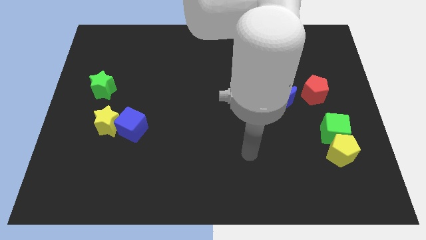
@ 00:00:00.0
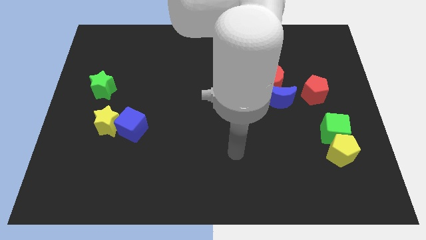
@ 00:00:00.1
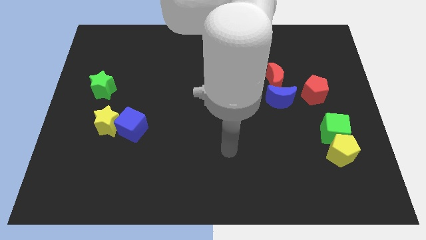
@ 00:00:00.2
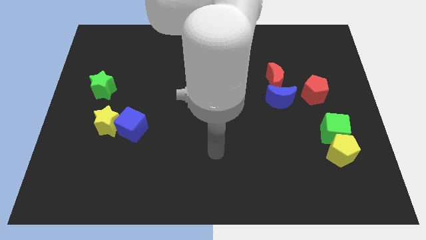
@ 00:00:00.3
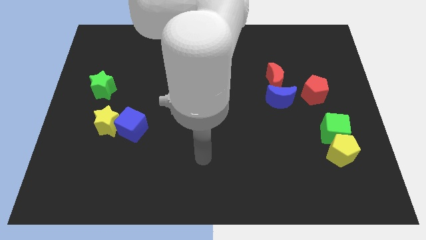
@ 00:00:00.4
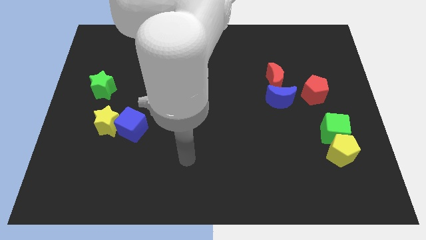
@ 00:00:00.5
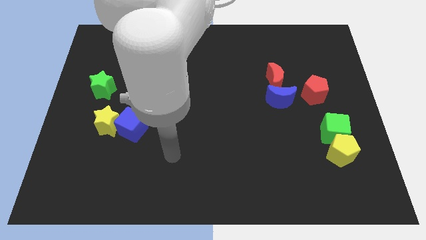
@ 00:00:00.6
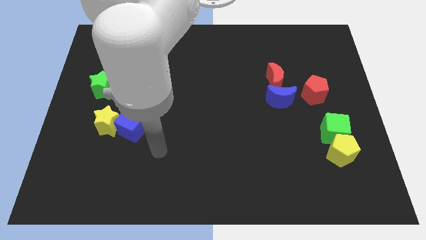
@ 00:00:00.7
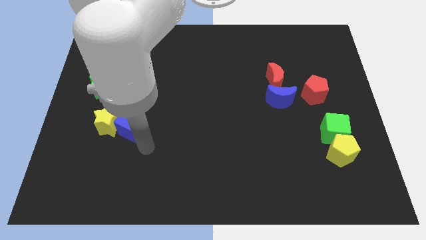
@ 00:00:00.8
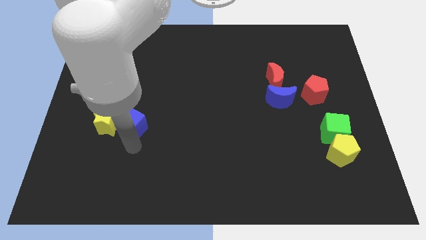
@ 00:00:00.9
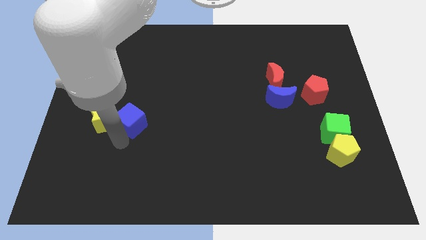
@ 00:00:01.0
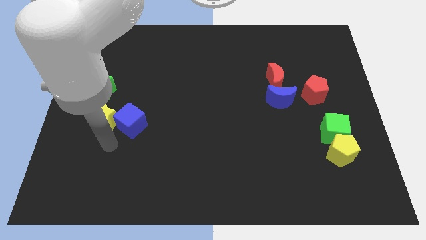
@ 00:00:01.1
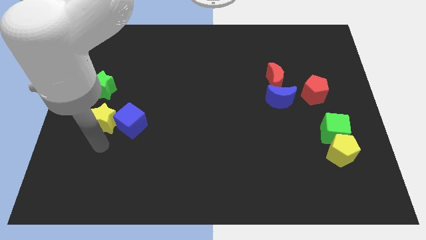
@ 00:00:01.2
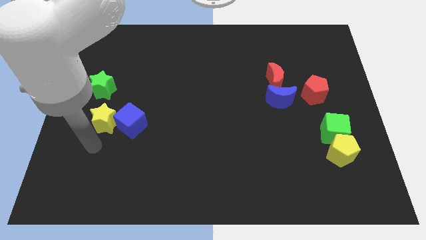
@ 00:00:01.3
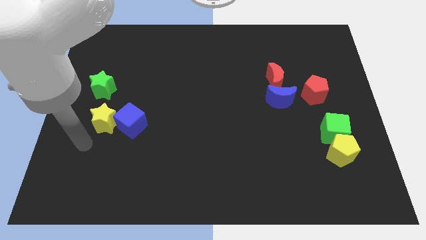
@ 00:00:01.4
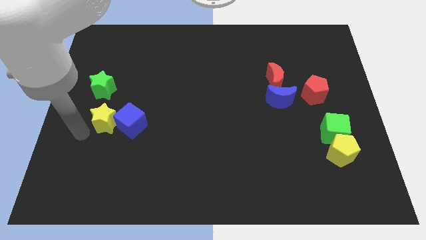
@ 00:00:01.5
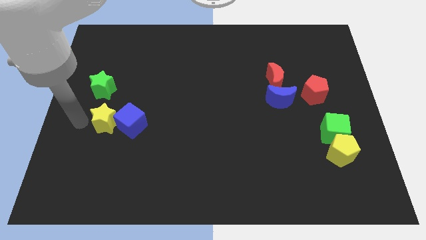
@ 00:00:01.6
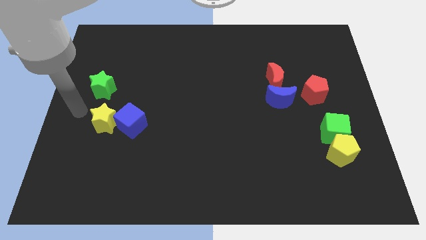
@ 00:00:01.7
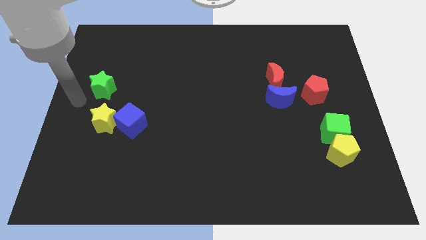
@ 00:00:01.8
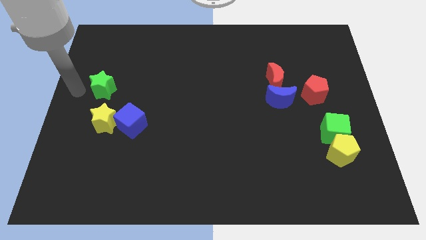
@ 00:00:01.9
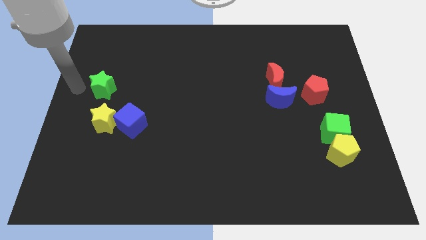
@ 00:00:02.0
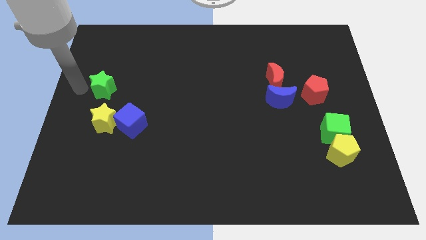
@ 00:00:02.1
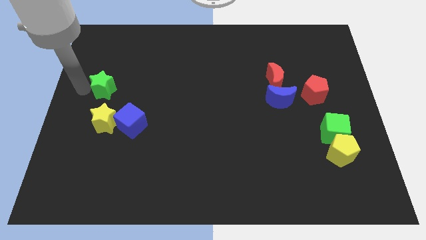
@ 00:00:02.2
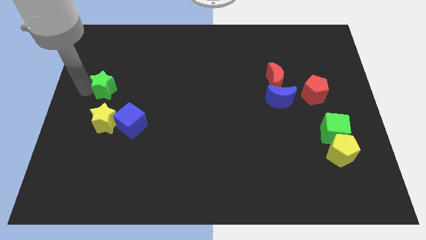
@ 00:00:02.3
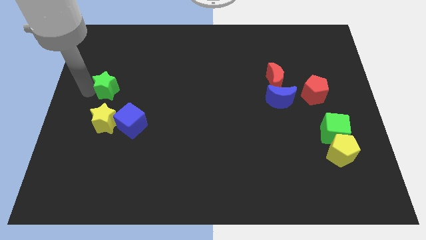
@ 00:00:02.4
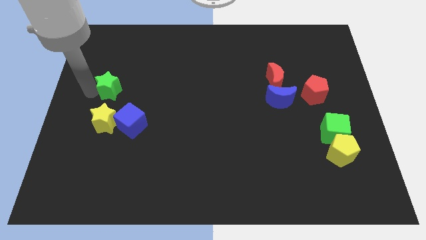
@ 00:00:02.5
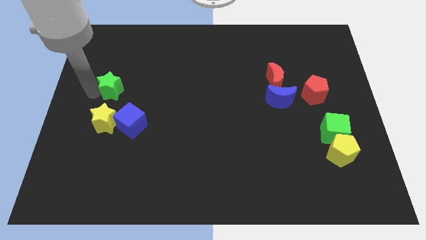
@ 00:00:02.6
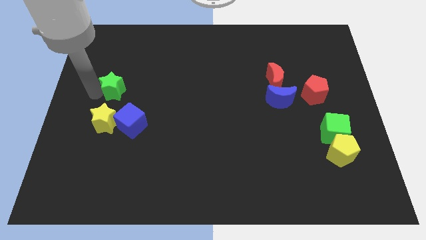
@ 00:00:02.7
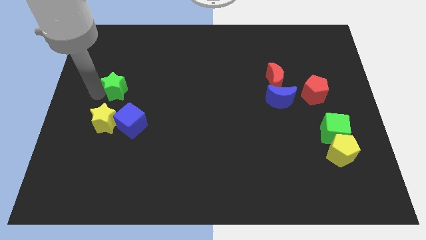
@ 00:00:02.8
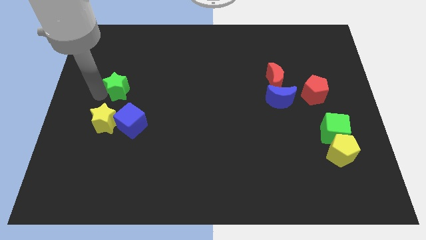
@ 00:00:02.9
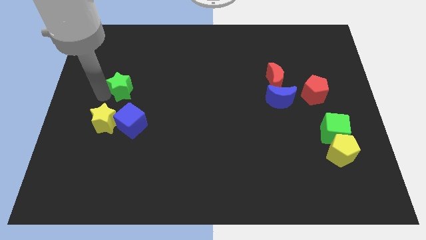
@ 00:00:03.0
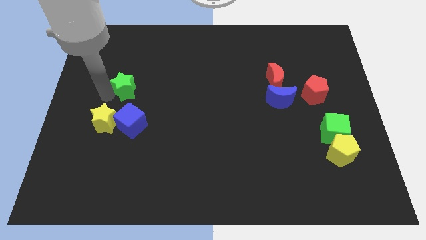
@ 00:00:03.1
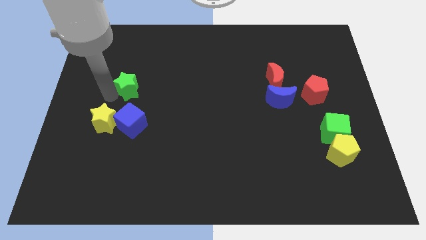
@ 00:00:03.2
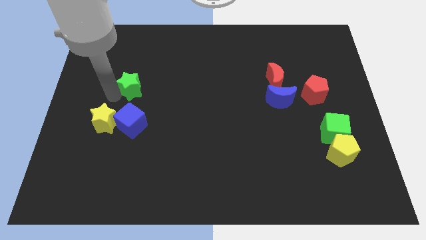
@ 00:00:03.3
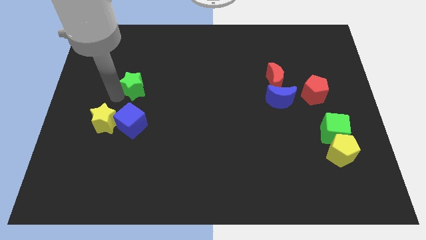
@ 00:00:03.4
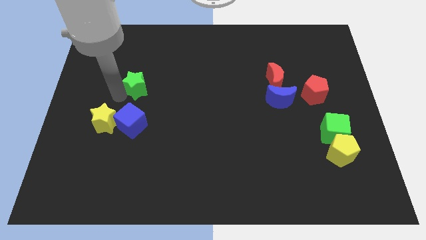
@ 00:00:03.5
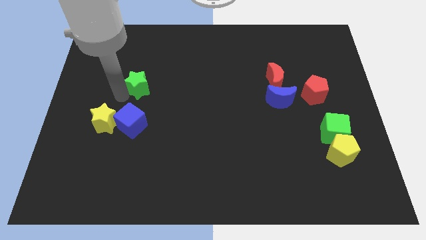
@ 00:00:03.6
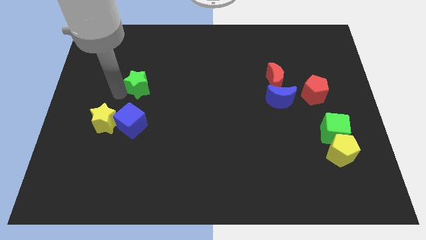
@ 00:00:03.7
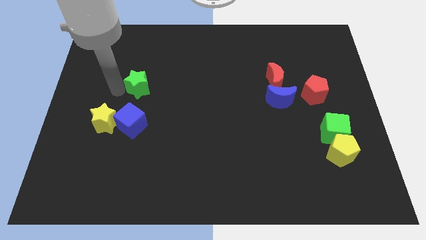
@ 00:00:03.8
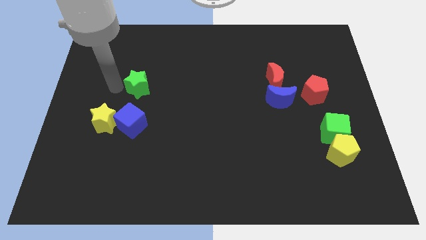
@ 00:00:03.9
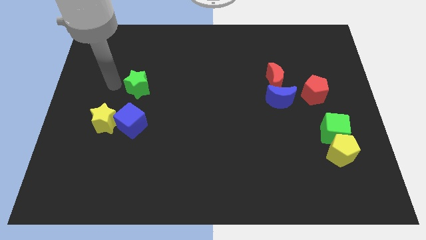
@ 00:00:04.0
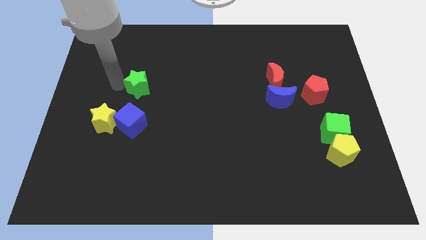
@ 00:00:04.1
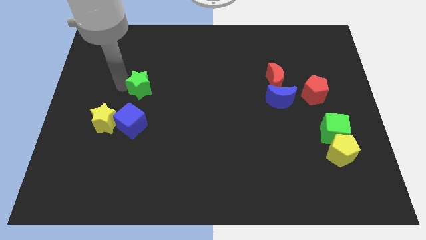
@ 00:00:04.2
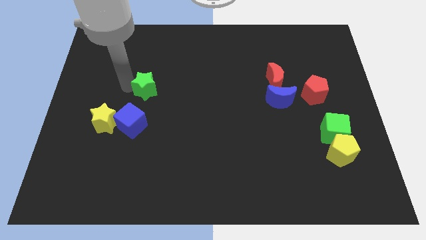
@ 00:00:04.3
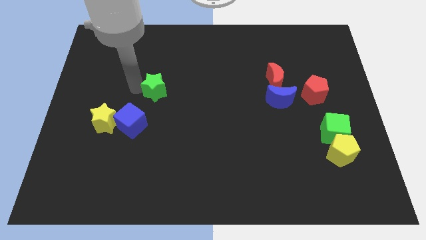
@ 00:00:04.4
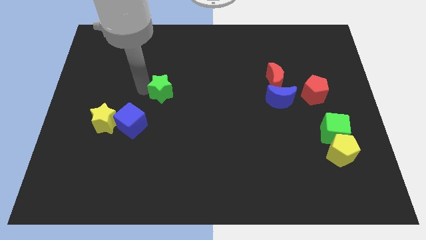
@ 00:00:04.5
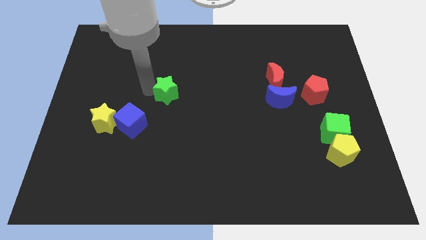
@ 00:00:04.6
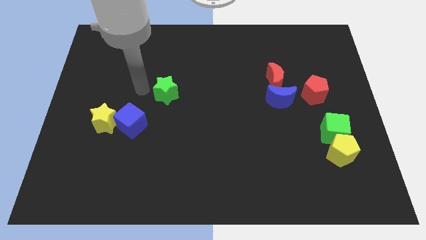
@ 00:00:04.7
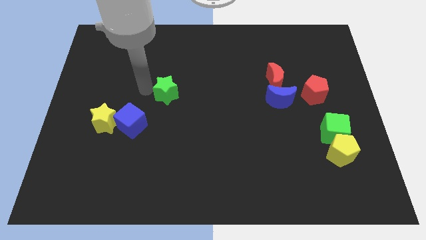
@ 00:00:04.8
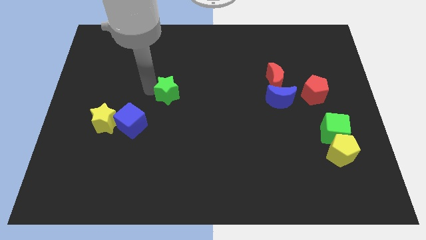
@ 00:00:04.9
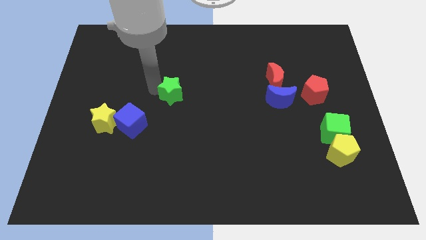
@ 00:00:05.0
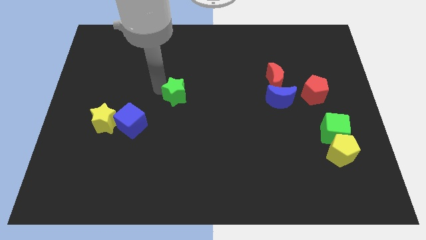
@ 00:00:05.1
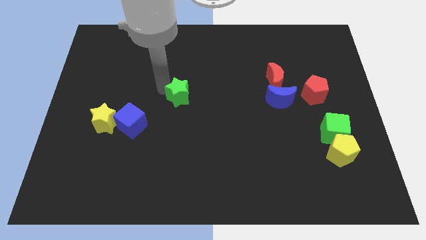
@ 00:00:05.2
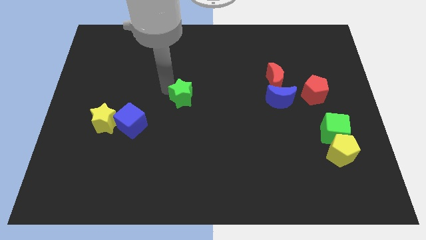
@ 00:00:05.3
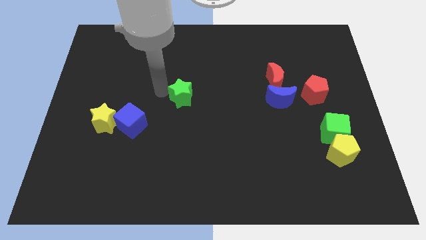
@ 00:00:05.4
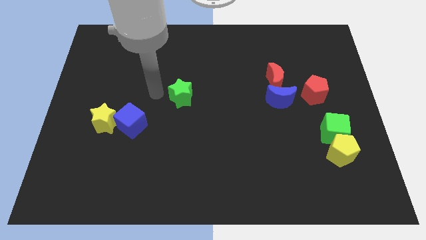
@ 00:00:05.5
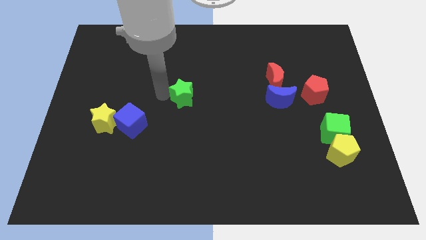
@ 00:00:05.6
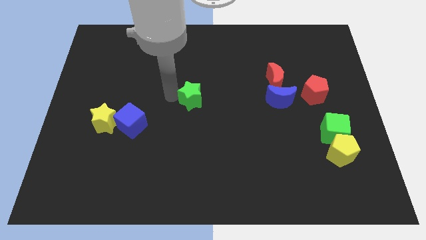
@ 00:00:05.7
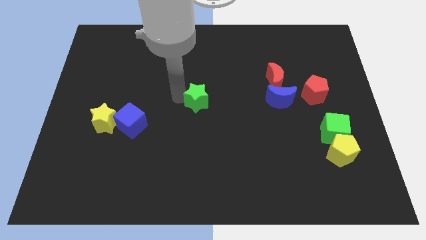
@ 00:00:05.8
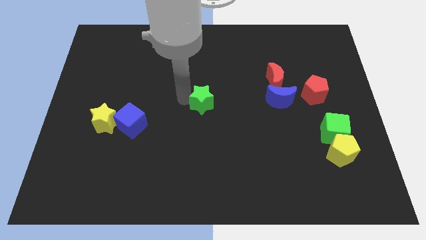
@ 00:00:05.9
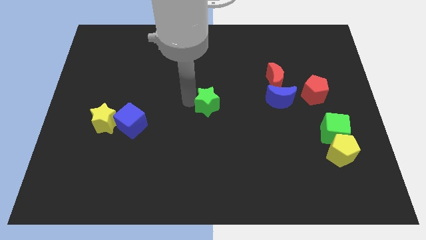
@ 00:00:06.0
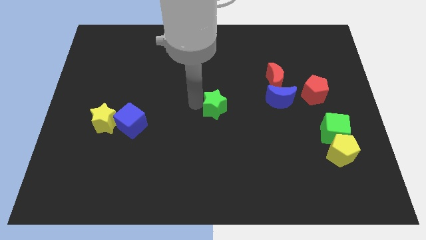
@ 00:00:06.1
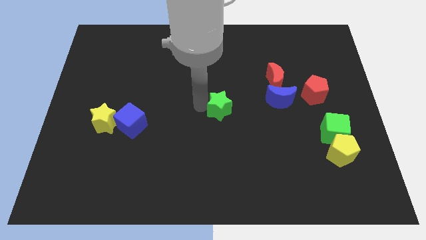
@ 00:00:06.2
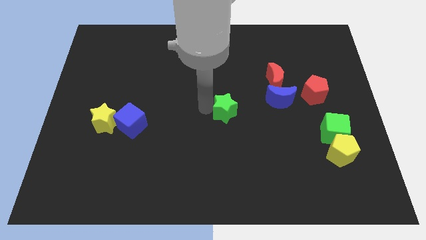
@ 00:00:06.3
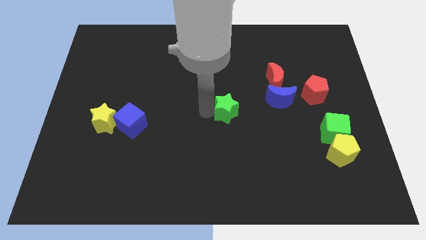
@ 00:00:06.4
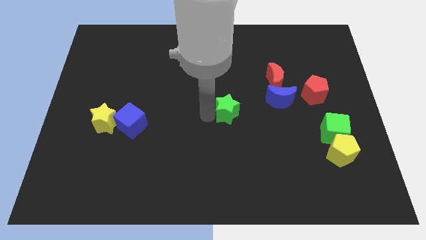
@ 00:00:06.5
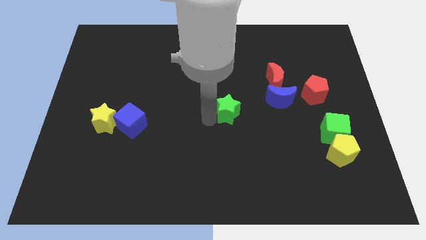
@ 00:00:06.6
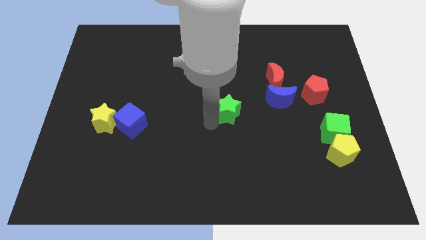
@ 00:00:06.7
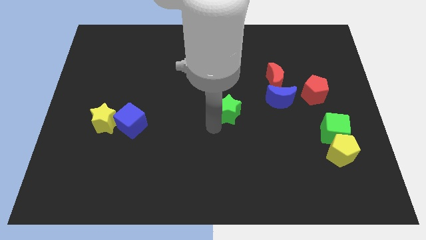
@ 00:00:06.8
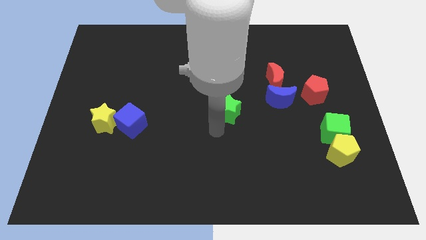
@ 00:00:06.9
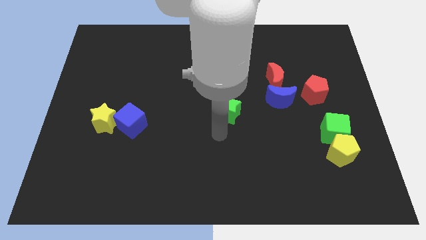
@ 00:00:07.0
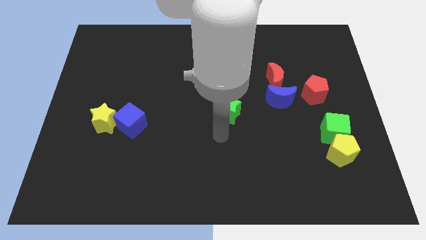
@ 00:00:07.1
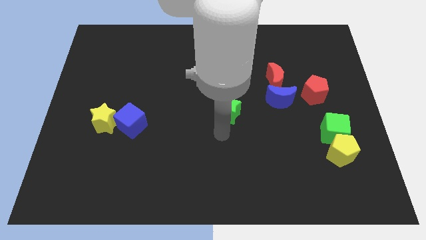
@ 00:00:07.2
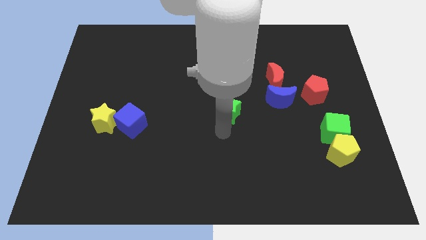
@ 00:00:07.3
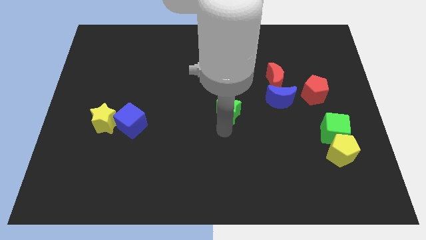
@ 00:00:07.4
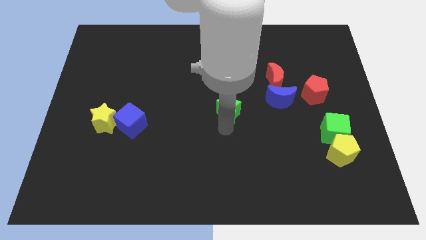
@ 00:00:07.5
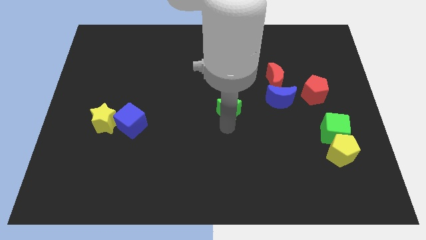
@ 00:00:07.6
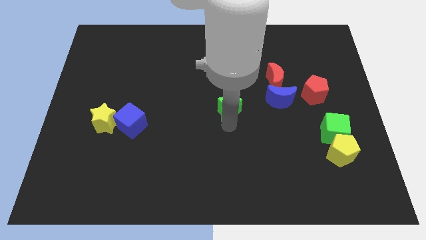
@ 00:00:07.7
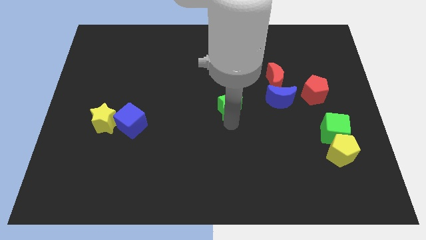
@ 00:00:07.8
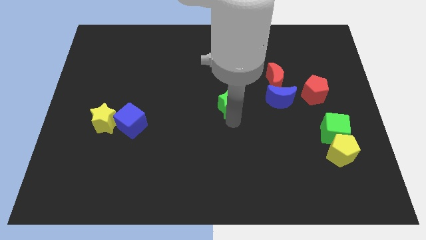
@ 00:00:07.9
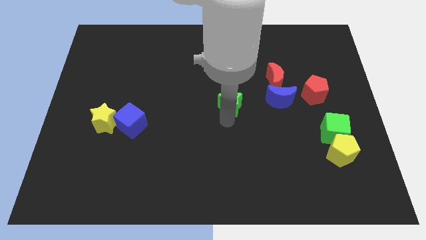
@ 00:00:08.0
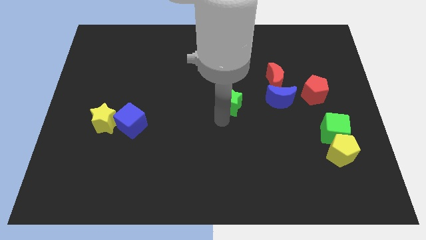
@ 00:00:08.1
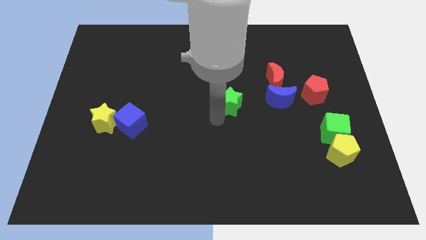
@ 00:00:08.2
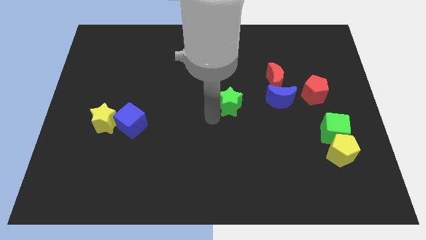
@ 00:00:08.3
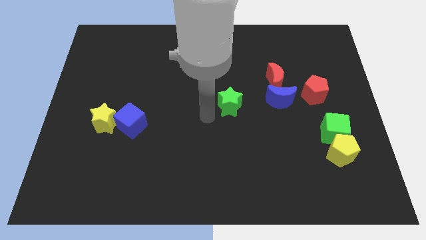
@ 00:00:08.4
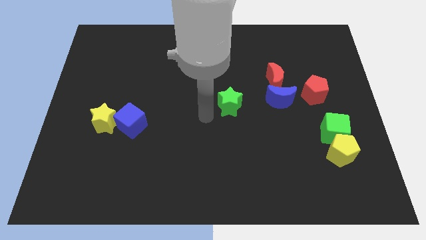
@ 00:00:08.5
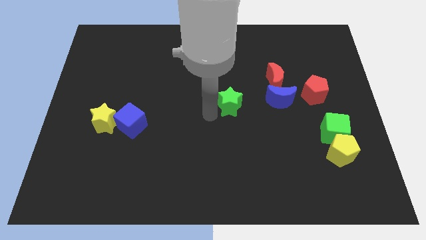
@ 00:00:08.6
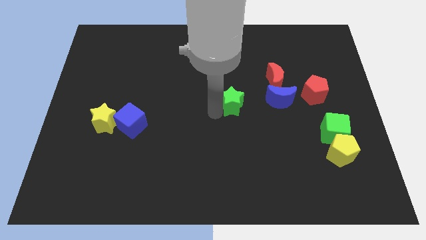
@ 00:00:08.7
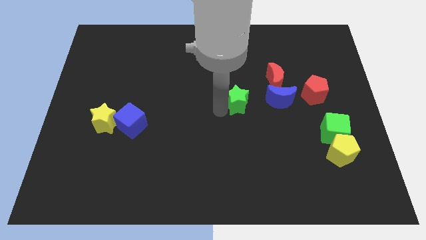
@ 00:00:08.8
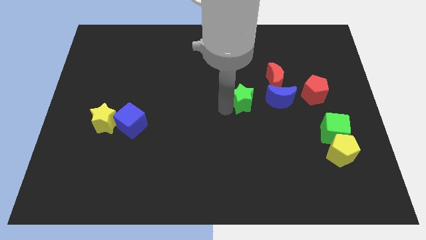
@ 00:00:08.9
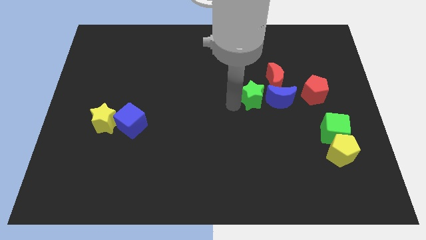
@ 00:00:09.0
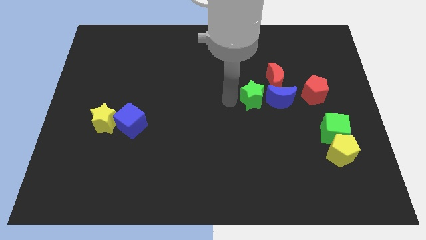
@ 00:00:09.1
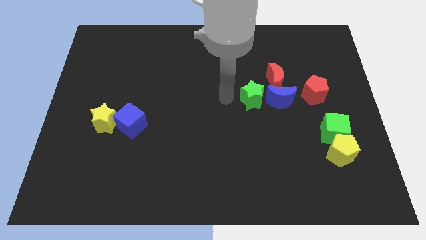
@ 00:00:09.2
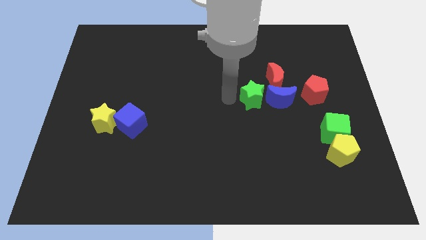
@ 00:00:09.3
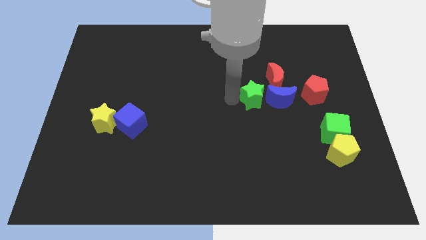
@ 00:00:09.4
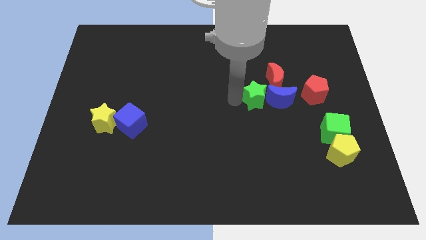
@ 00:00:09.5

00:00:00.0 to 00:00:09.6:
move the green star close to the blue moon
